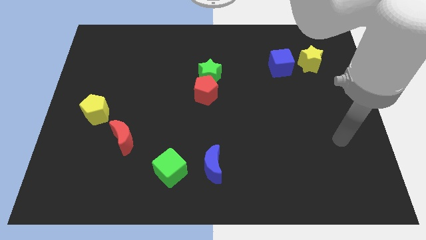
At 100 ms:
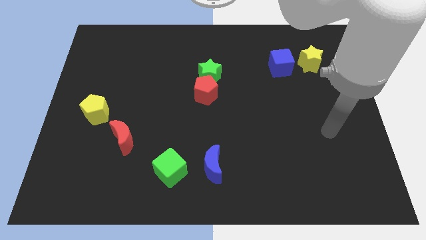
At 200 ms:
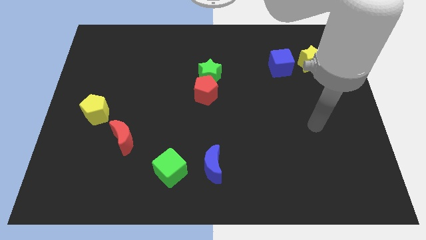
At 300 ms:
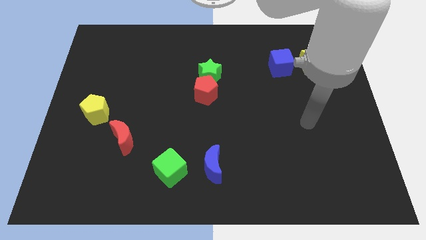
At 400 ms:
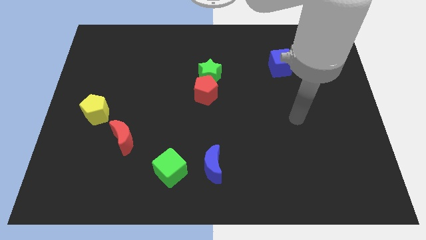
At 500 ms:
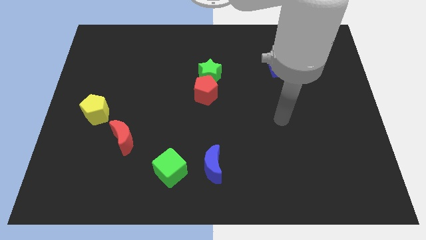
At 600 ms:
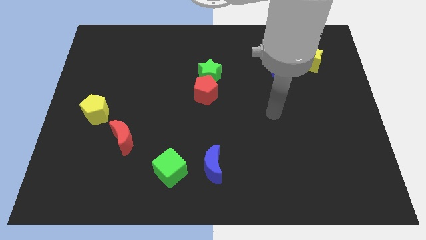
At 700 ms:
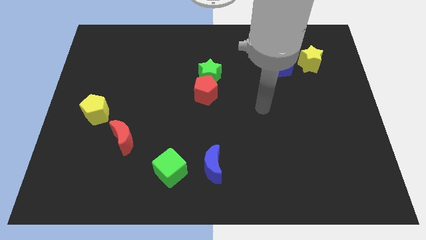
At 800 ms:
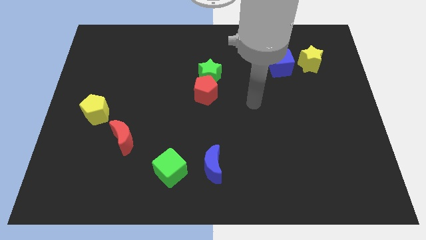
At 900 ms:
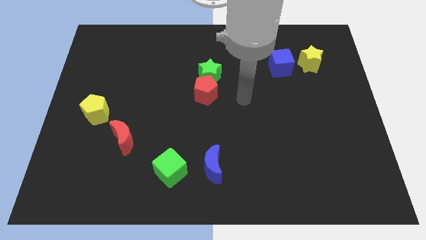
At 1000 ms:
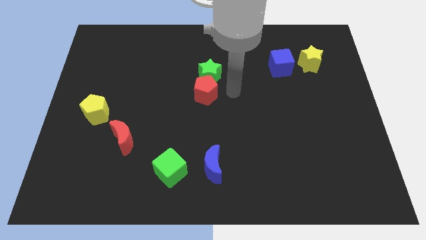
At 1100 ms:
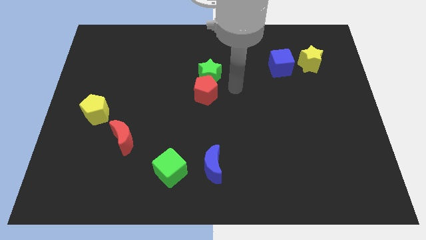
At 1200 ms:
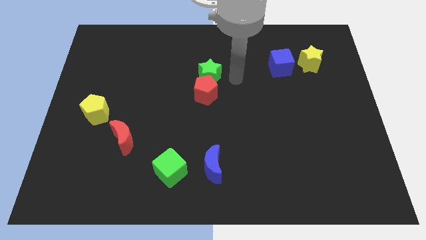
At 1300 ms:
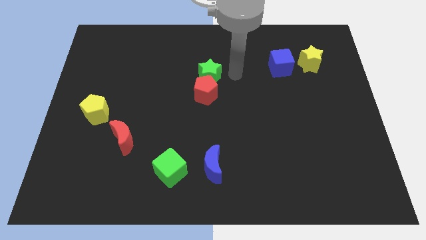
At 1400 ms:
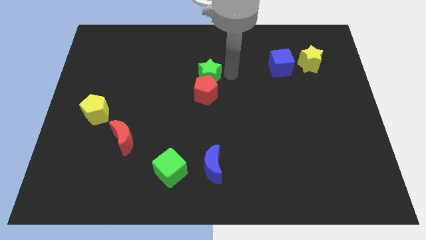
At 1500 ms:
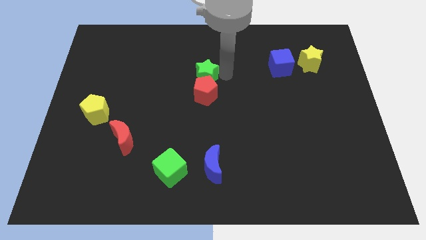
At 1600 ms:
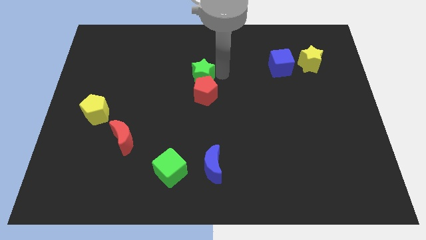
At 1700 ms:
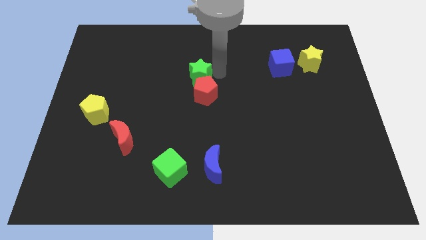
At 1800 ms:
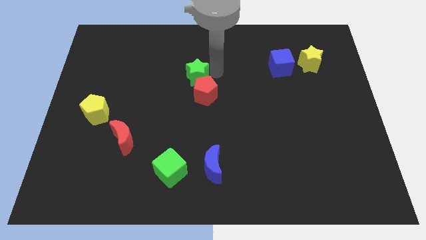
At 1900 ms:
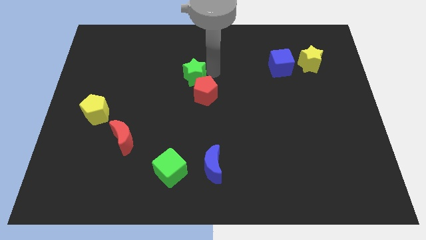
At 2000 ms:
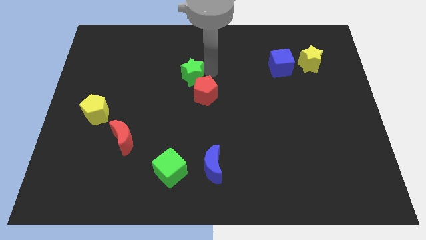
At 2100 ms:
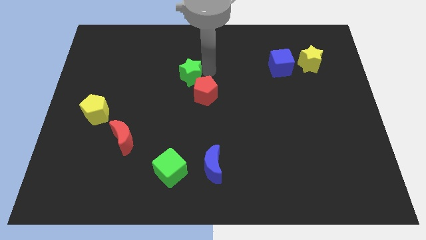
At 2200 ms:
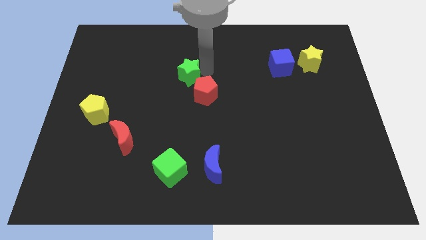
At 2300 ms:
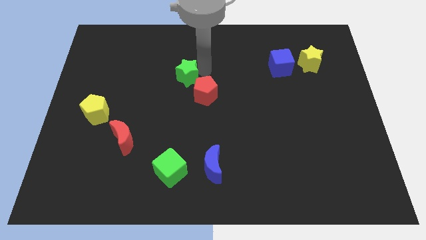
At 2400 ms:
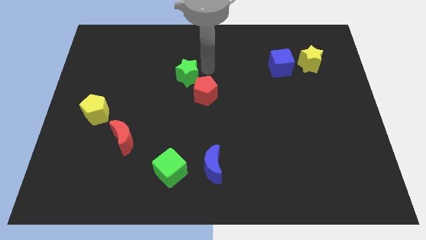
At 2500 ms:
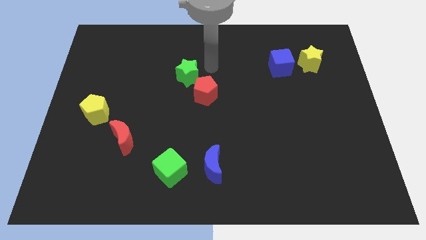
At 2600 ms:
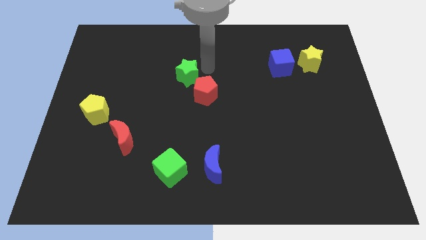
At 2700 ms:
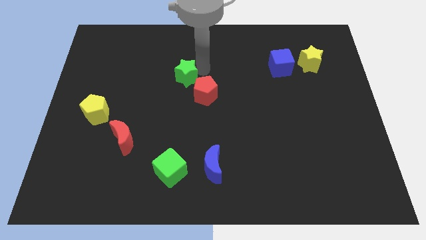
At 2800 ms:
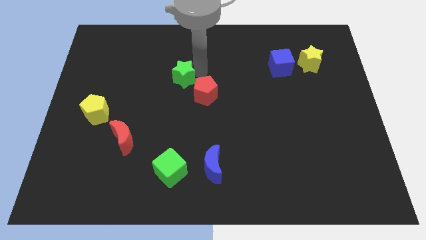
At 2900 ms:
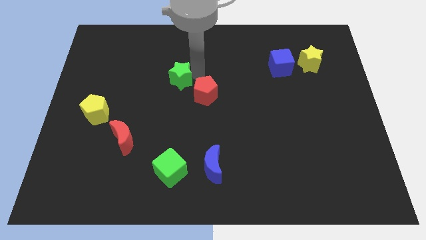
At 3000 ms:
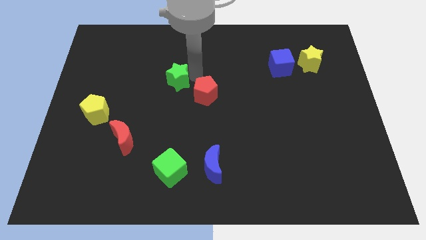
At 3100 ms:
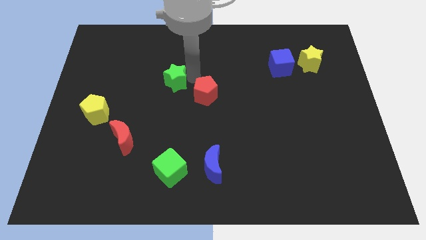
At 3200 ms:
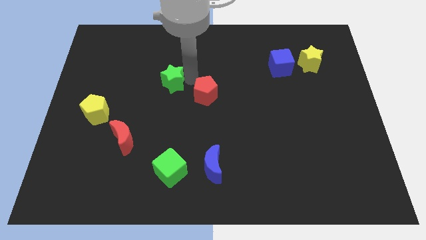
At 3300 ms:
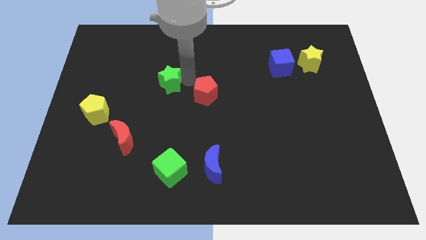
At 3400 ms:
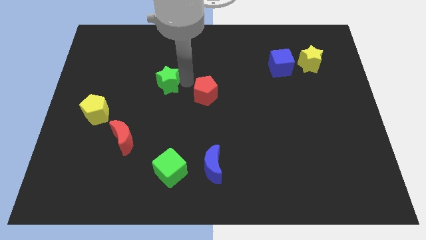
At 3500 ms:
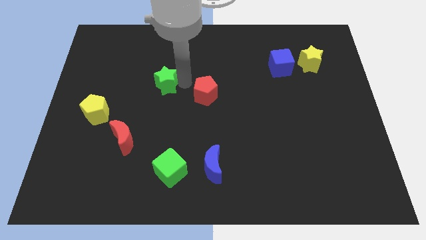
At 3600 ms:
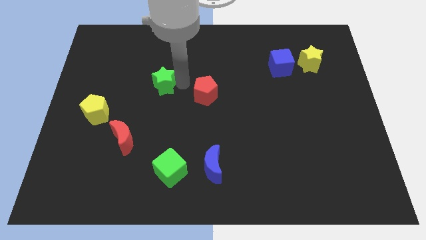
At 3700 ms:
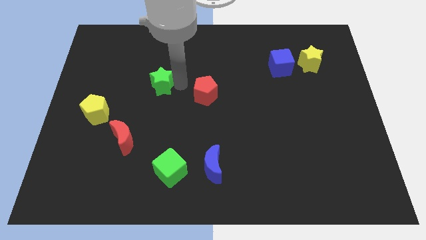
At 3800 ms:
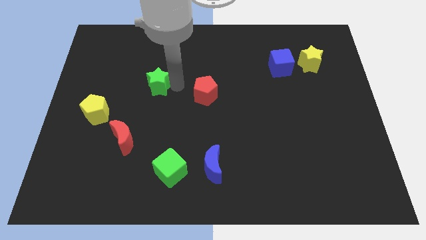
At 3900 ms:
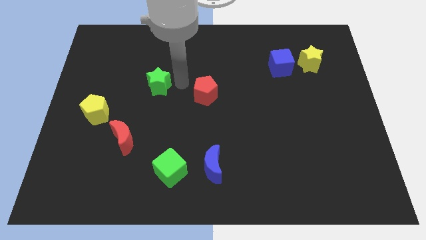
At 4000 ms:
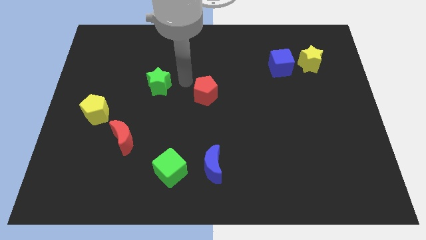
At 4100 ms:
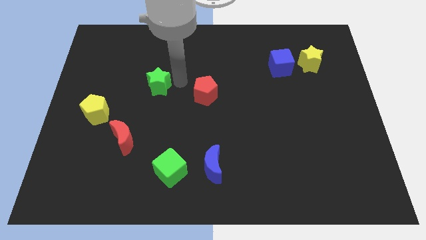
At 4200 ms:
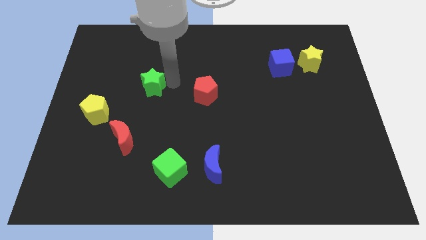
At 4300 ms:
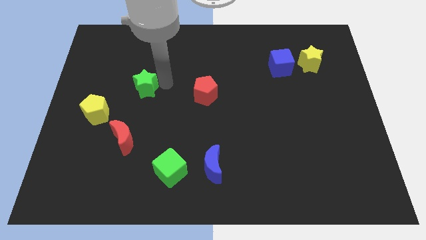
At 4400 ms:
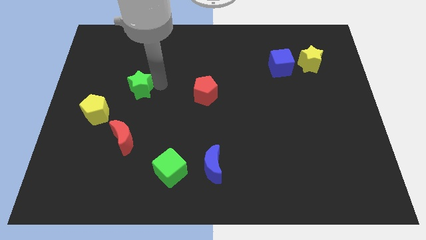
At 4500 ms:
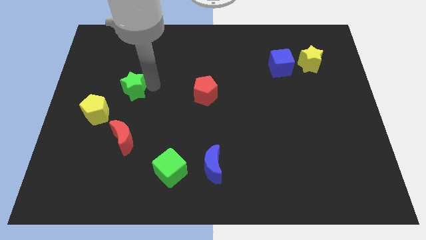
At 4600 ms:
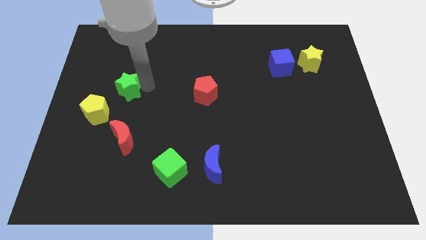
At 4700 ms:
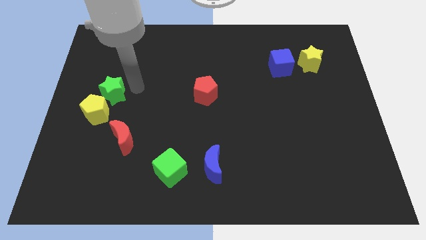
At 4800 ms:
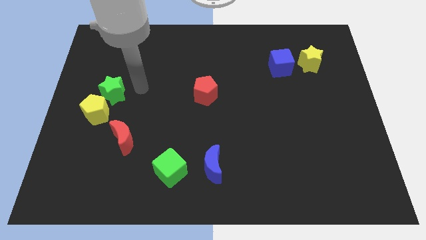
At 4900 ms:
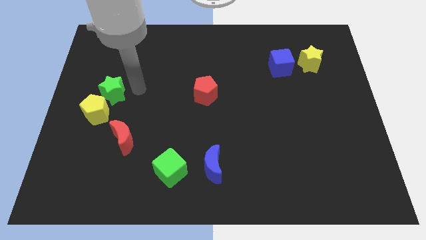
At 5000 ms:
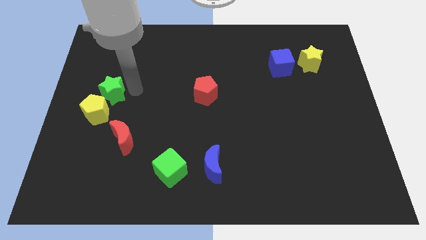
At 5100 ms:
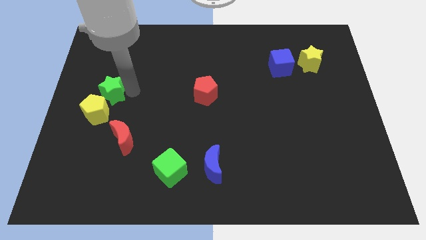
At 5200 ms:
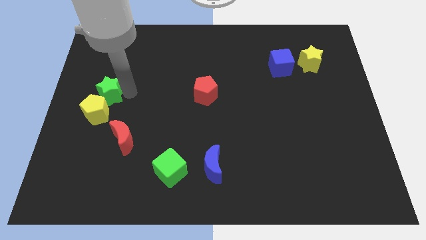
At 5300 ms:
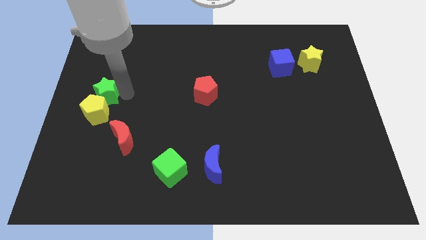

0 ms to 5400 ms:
put the green star to the center left

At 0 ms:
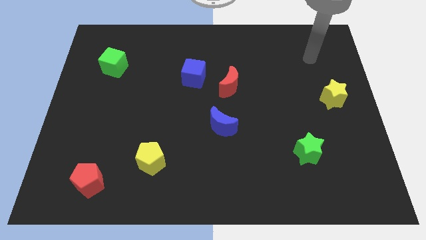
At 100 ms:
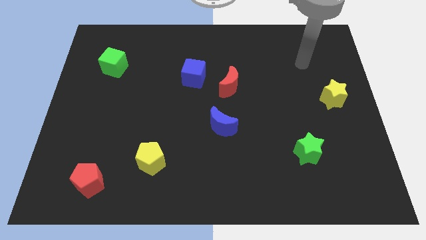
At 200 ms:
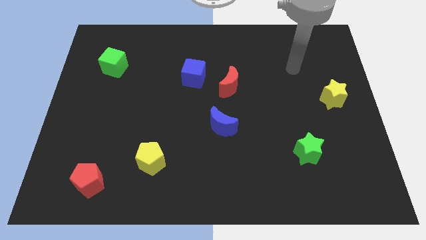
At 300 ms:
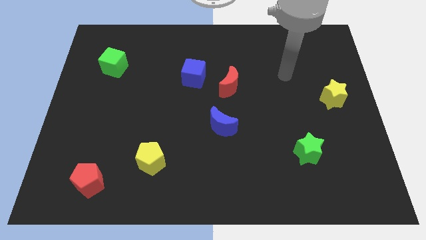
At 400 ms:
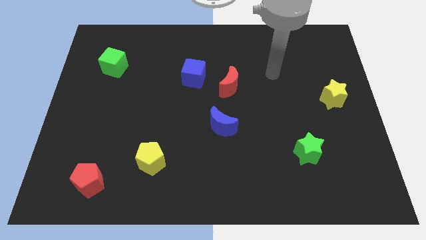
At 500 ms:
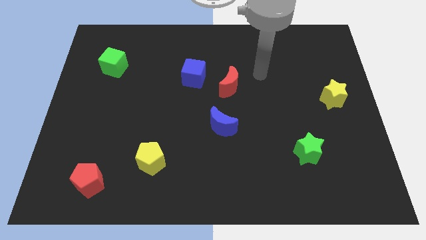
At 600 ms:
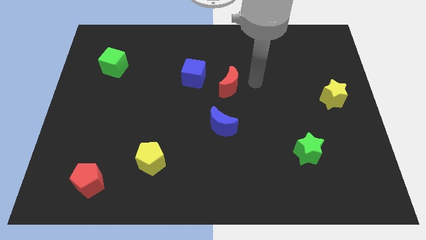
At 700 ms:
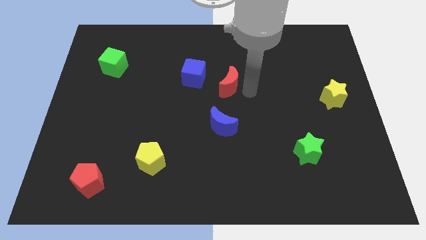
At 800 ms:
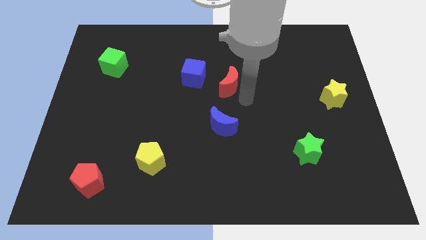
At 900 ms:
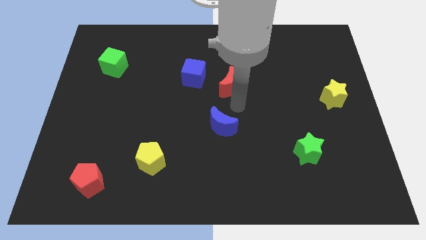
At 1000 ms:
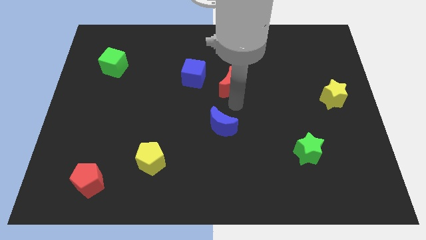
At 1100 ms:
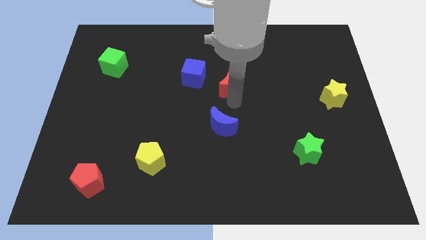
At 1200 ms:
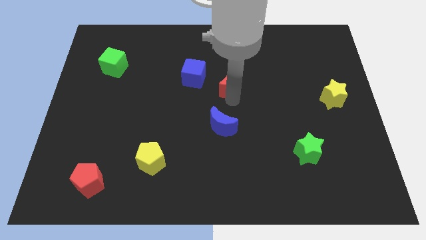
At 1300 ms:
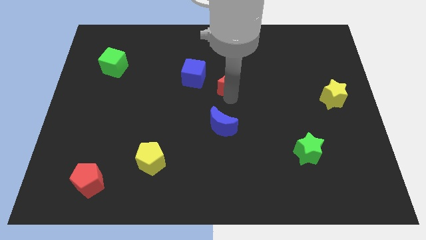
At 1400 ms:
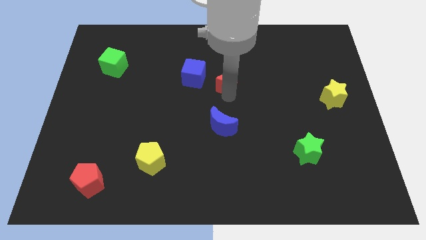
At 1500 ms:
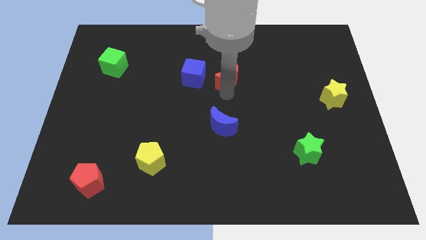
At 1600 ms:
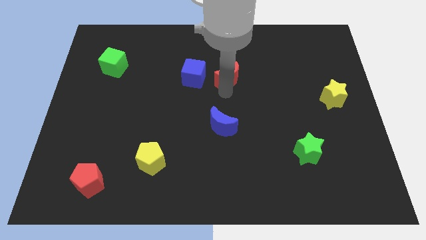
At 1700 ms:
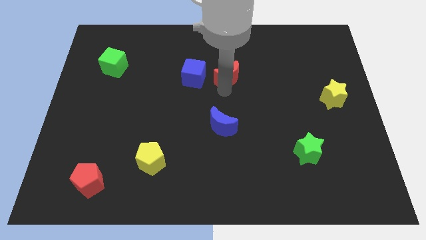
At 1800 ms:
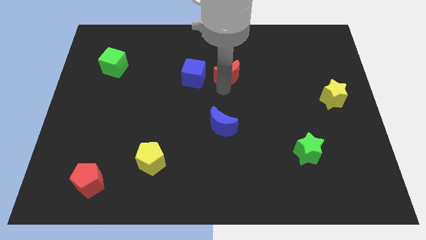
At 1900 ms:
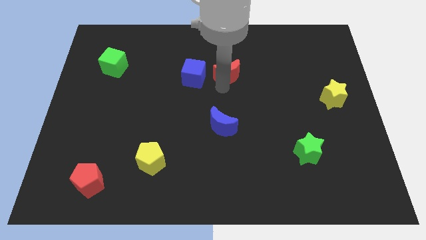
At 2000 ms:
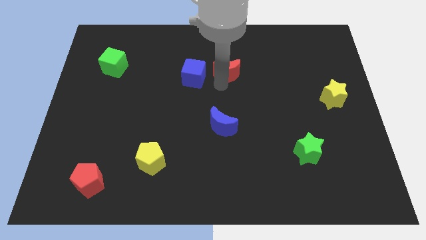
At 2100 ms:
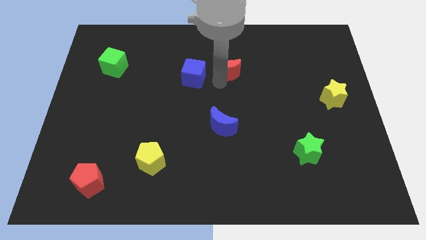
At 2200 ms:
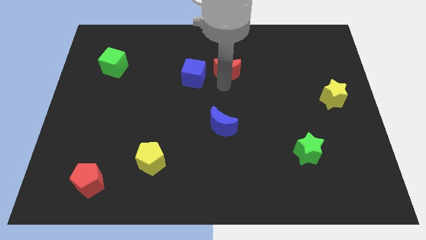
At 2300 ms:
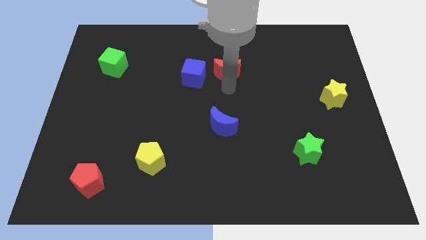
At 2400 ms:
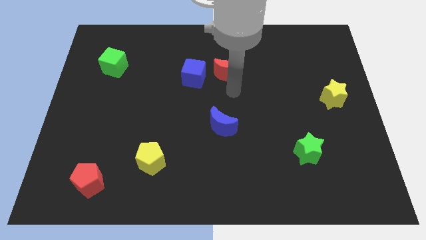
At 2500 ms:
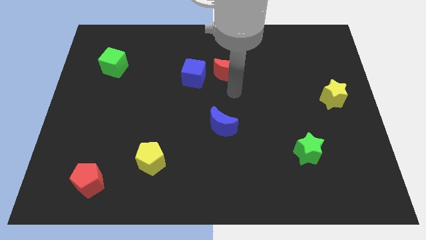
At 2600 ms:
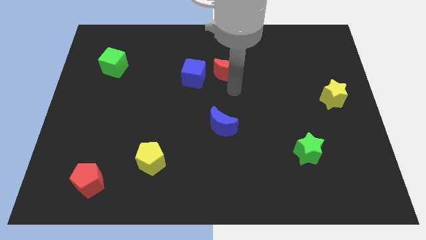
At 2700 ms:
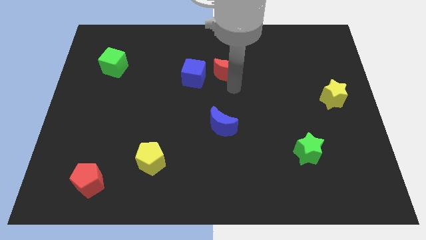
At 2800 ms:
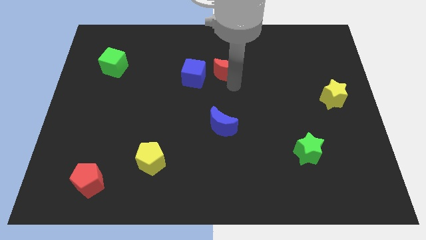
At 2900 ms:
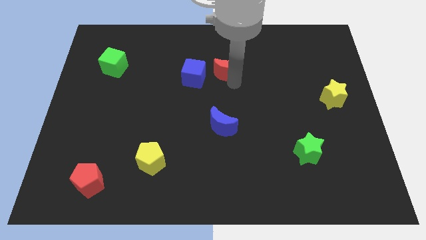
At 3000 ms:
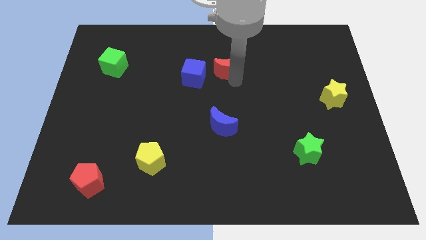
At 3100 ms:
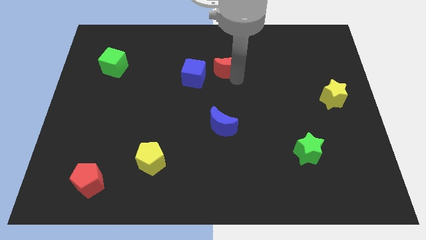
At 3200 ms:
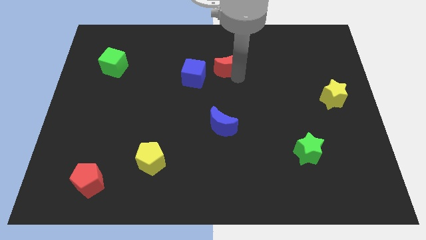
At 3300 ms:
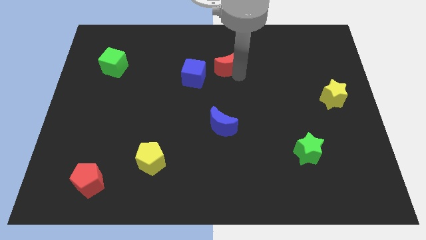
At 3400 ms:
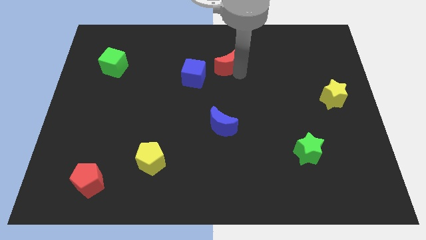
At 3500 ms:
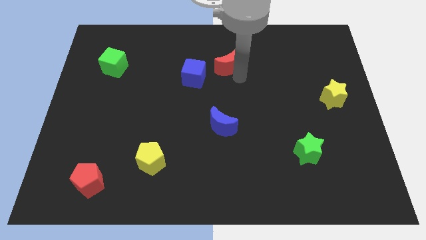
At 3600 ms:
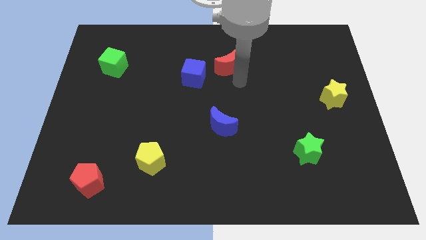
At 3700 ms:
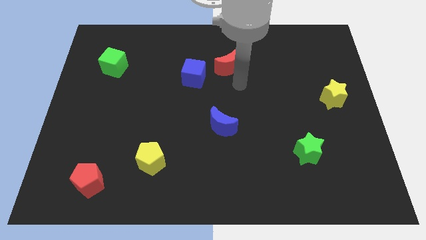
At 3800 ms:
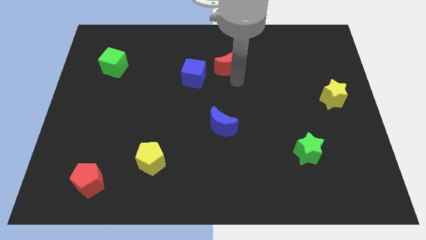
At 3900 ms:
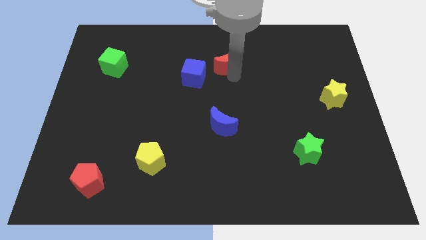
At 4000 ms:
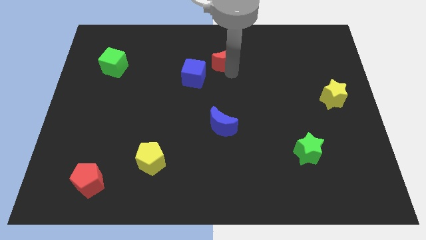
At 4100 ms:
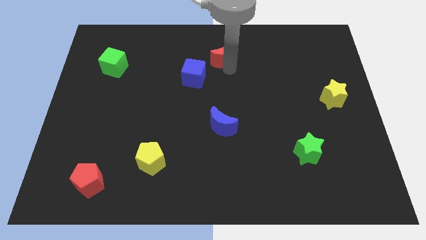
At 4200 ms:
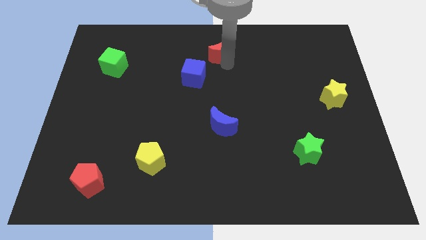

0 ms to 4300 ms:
move the red moon to the top
